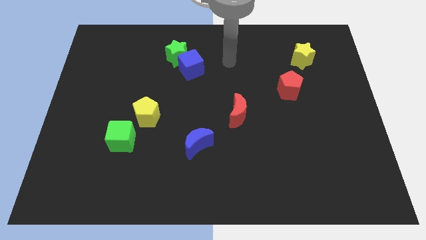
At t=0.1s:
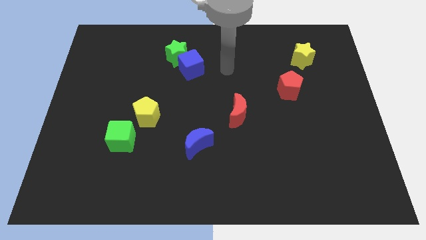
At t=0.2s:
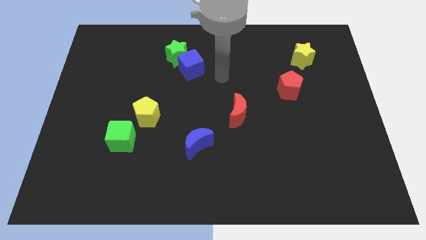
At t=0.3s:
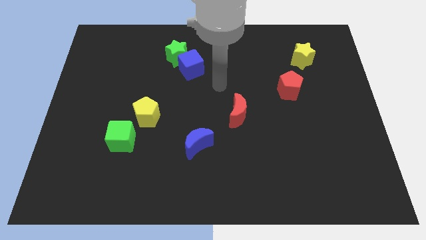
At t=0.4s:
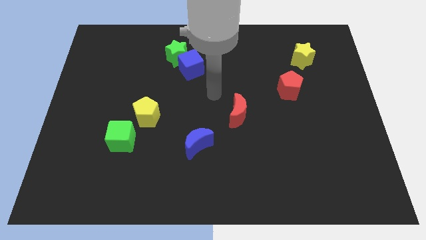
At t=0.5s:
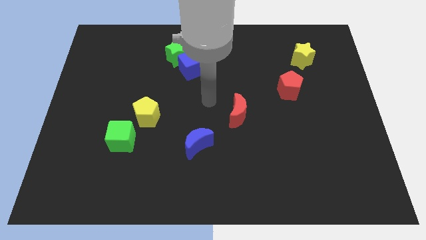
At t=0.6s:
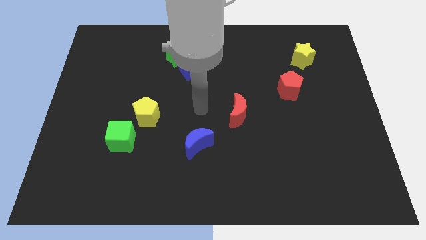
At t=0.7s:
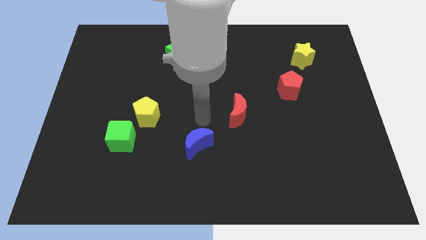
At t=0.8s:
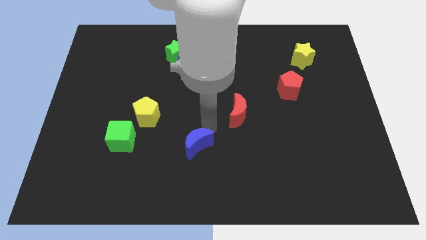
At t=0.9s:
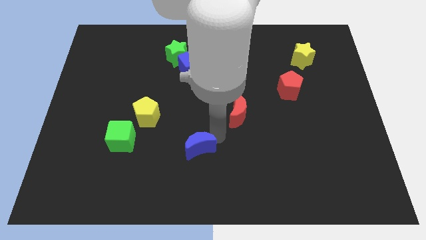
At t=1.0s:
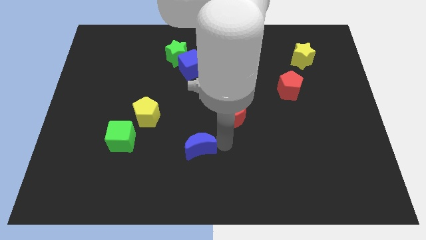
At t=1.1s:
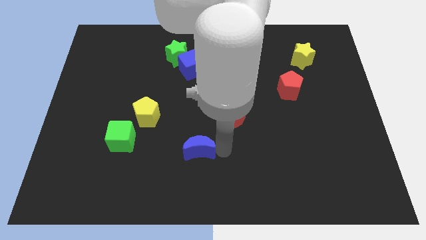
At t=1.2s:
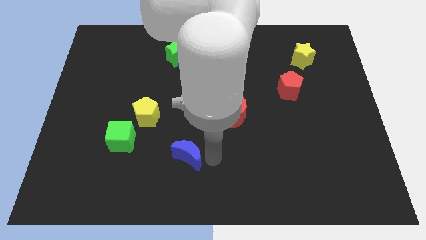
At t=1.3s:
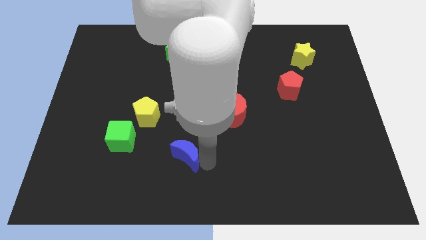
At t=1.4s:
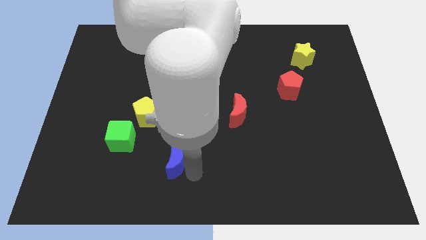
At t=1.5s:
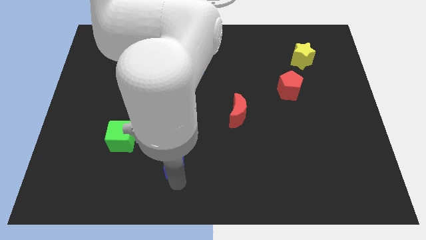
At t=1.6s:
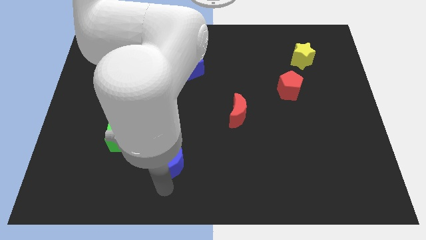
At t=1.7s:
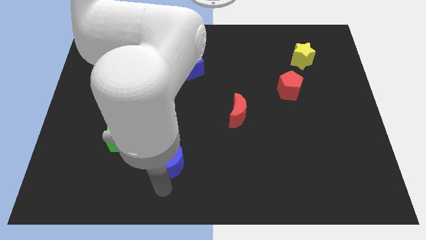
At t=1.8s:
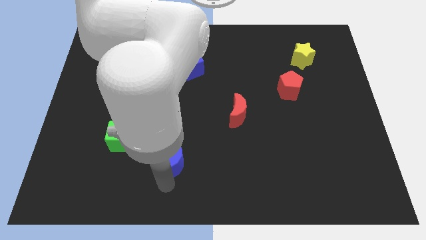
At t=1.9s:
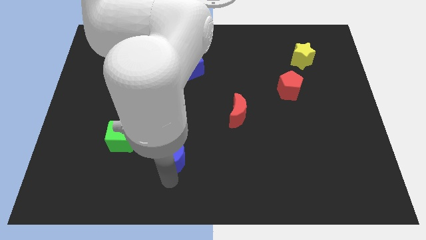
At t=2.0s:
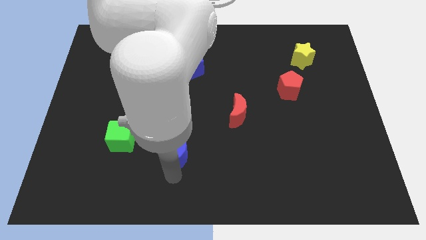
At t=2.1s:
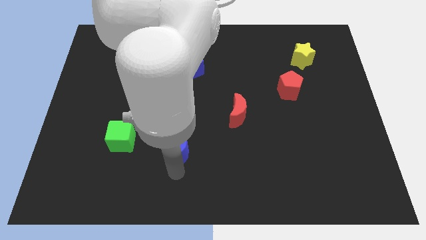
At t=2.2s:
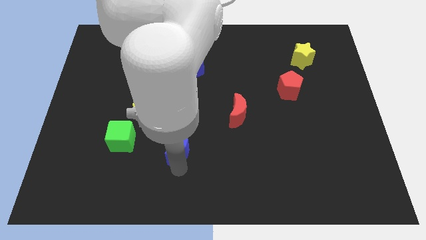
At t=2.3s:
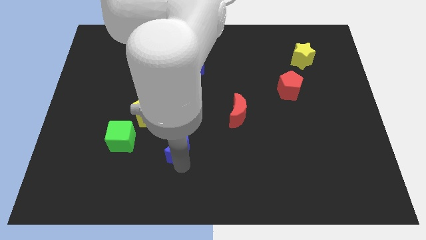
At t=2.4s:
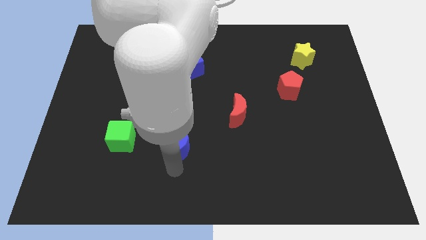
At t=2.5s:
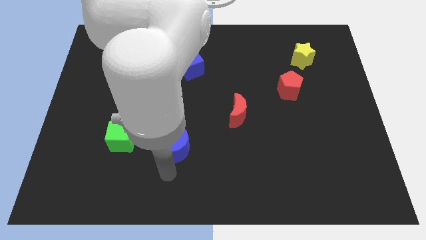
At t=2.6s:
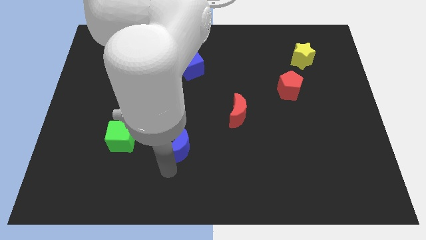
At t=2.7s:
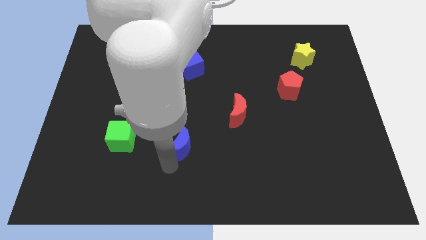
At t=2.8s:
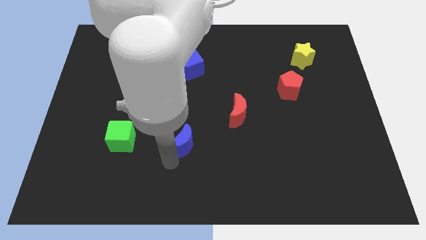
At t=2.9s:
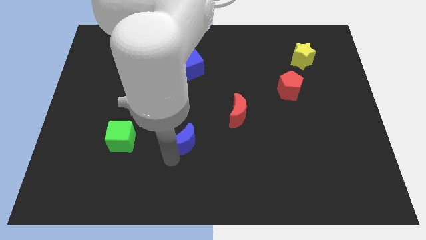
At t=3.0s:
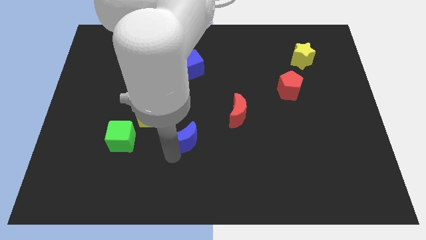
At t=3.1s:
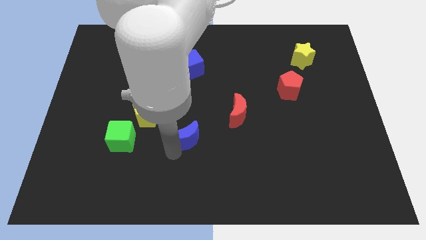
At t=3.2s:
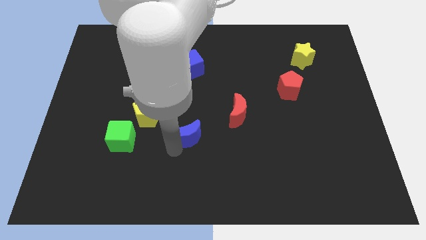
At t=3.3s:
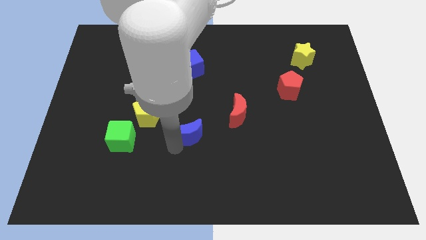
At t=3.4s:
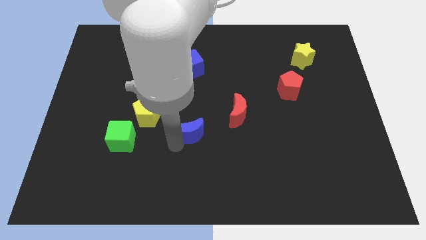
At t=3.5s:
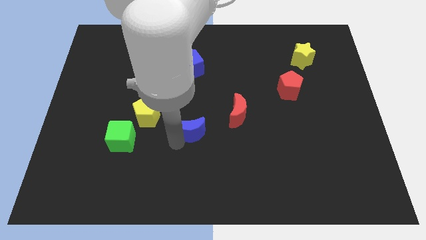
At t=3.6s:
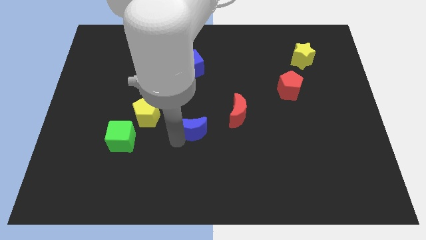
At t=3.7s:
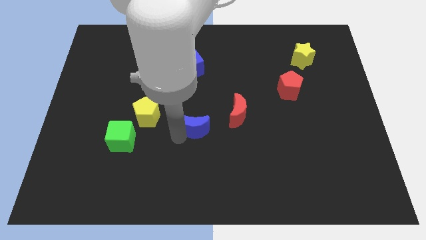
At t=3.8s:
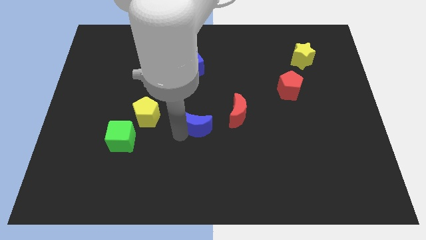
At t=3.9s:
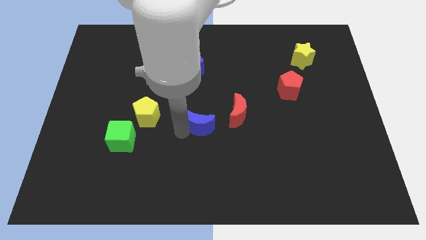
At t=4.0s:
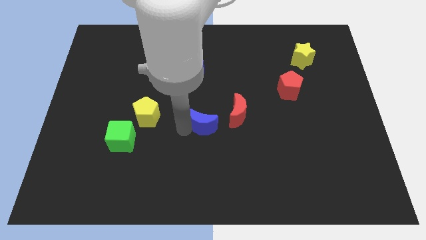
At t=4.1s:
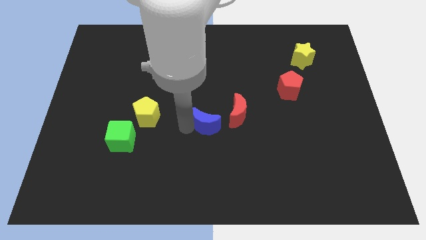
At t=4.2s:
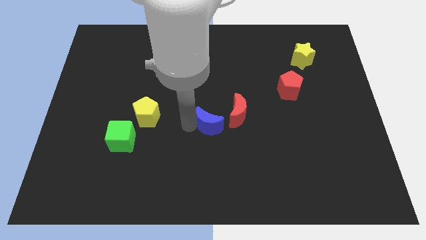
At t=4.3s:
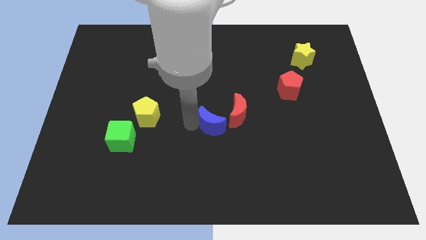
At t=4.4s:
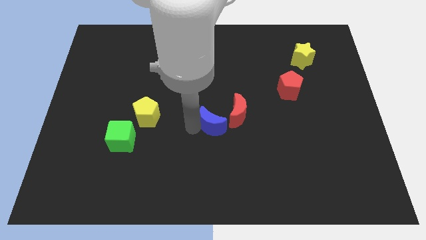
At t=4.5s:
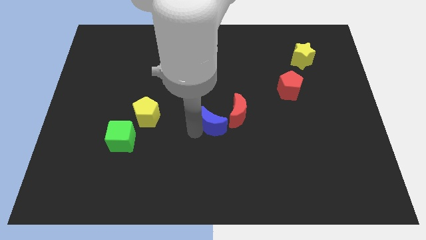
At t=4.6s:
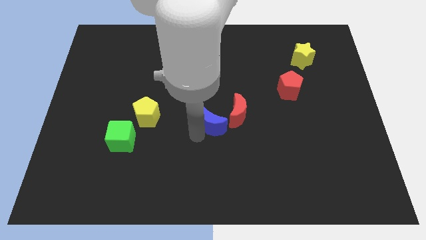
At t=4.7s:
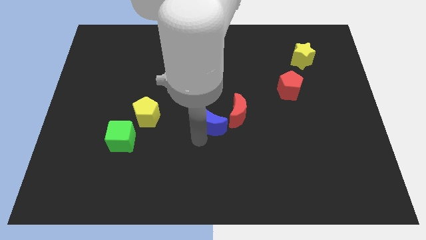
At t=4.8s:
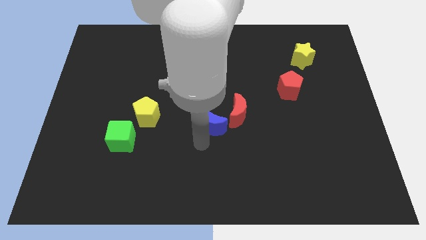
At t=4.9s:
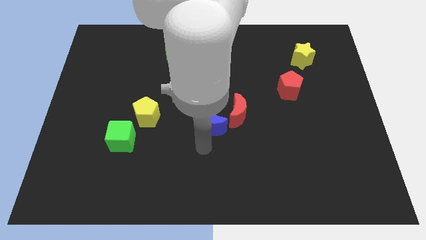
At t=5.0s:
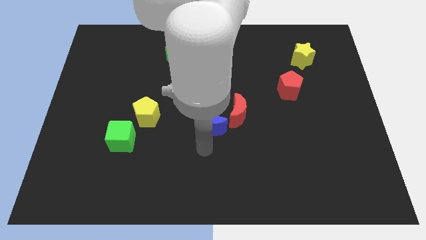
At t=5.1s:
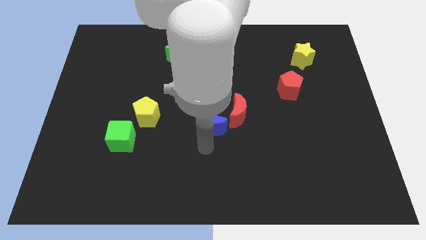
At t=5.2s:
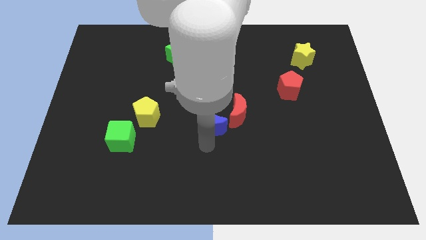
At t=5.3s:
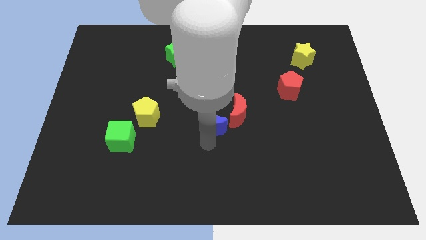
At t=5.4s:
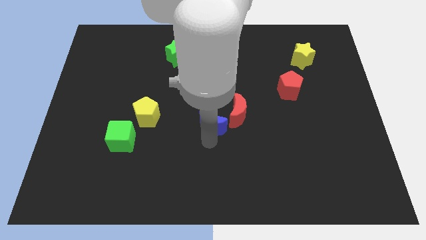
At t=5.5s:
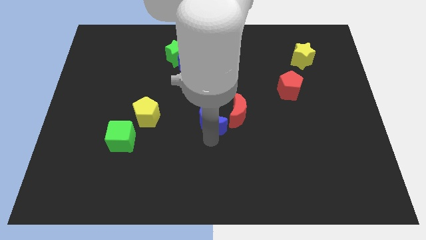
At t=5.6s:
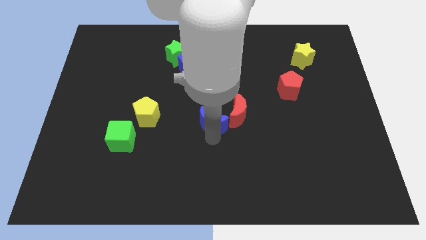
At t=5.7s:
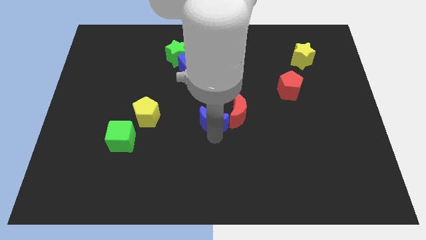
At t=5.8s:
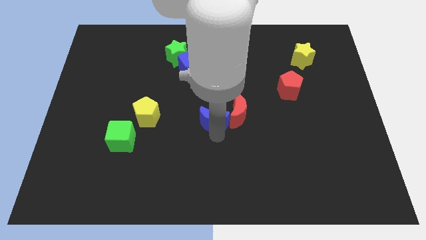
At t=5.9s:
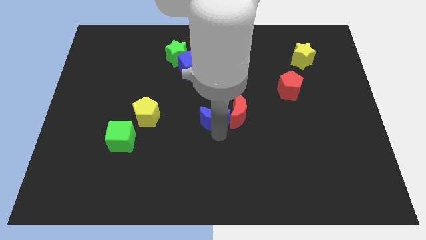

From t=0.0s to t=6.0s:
slightly push the blue moon upwards and then right

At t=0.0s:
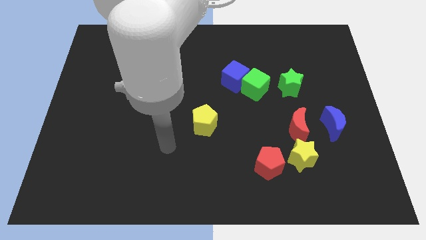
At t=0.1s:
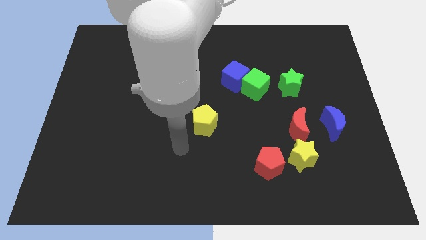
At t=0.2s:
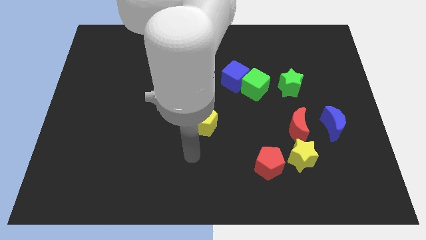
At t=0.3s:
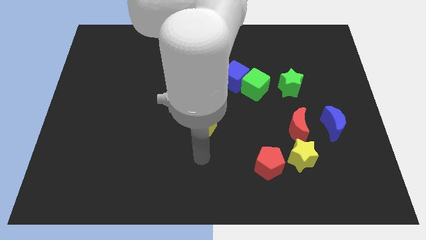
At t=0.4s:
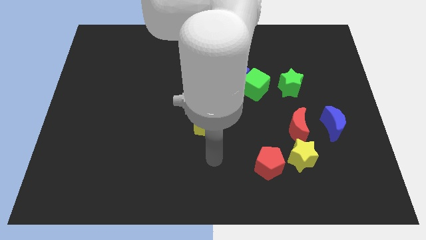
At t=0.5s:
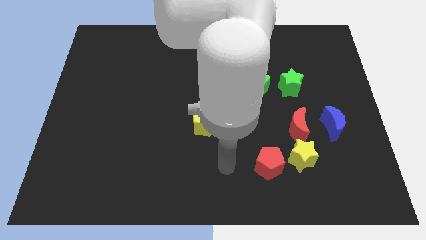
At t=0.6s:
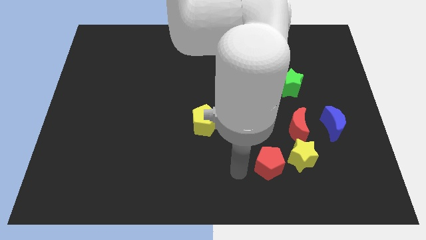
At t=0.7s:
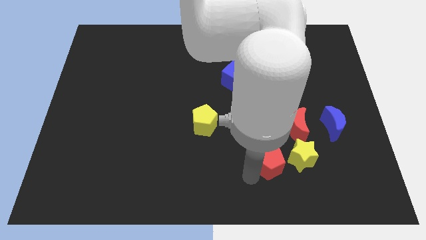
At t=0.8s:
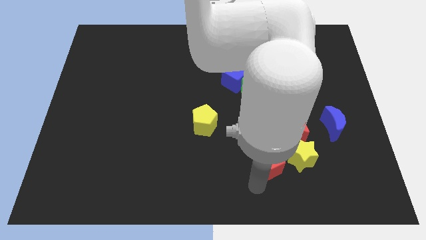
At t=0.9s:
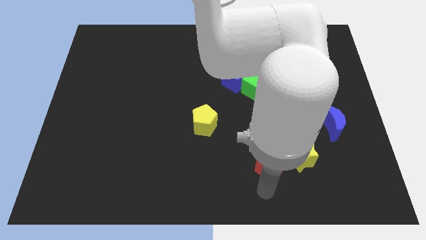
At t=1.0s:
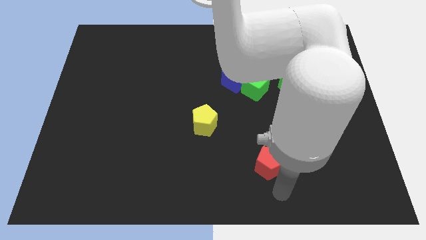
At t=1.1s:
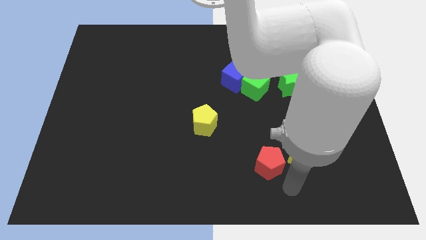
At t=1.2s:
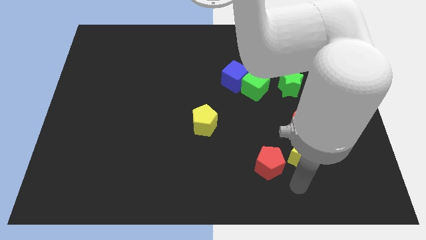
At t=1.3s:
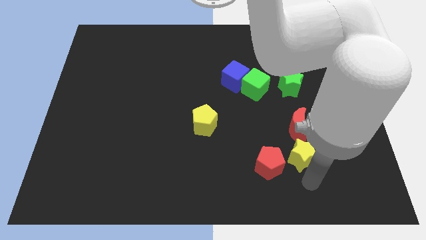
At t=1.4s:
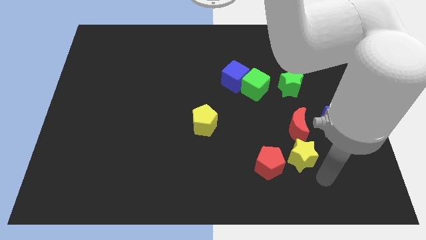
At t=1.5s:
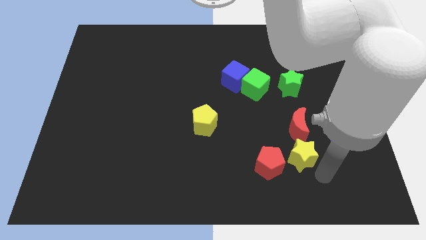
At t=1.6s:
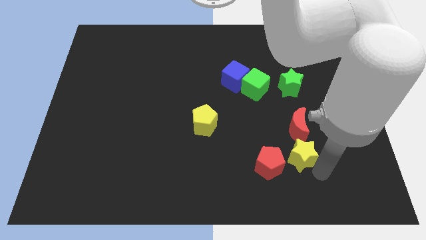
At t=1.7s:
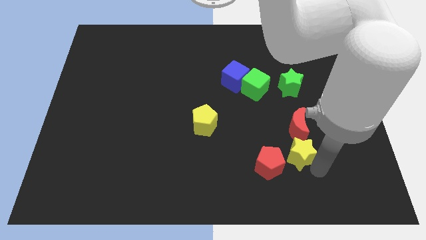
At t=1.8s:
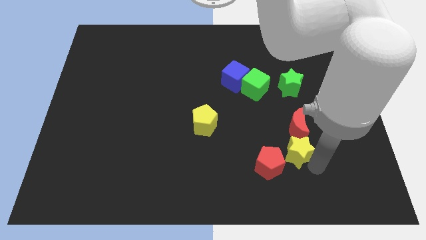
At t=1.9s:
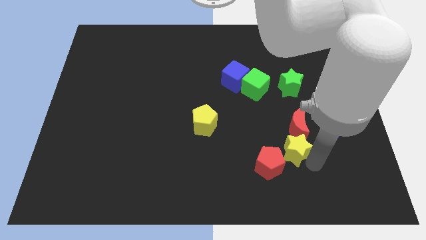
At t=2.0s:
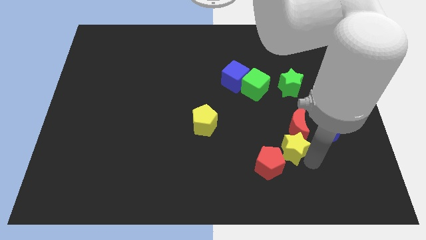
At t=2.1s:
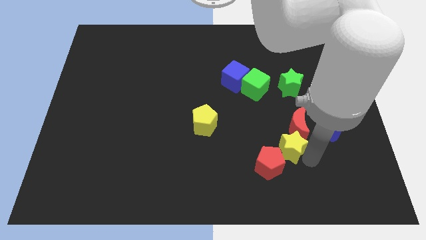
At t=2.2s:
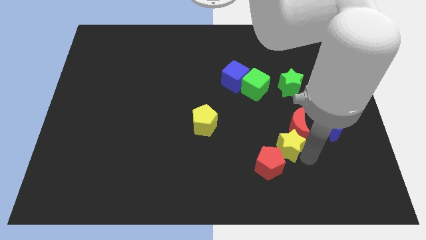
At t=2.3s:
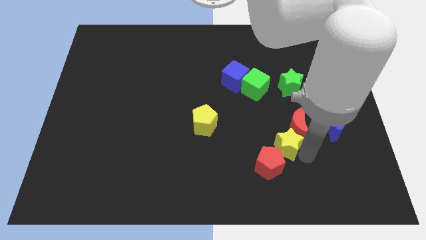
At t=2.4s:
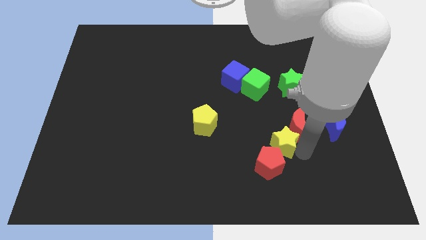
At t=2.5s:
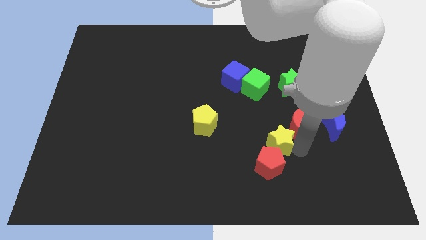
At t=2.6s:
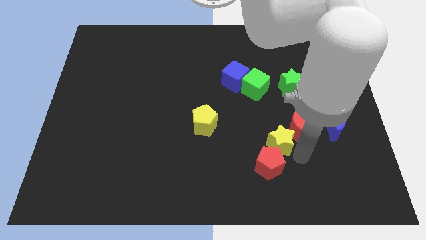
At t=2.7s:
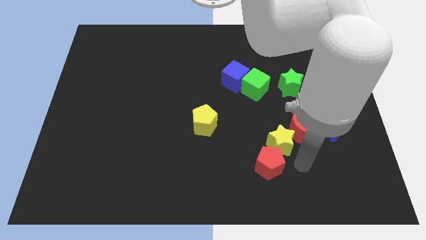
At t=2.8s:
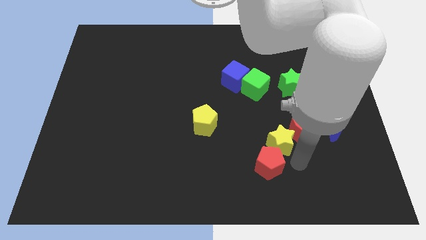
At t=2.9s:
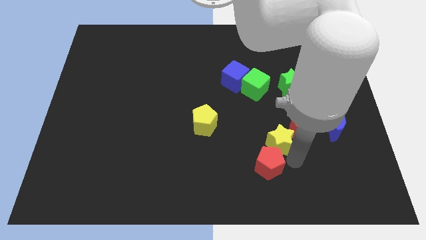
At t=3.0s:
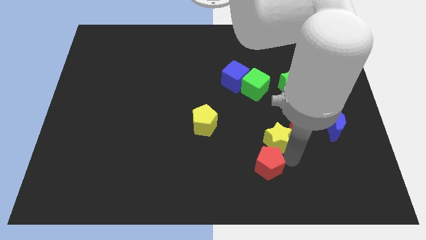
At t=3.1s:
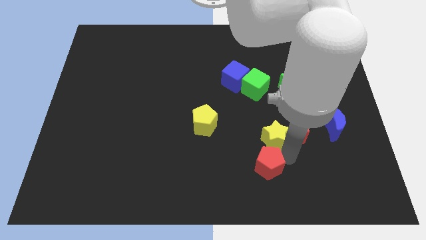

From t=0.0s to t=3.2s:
slightly move the yellow star up and to the left diagonally
